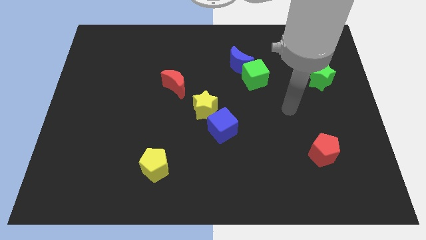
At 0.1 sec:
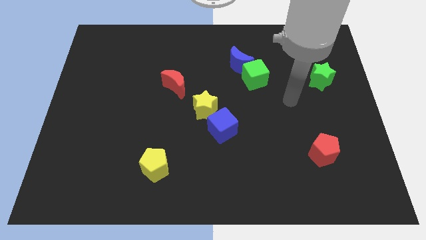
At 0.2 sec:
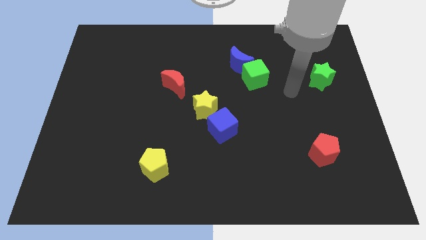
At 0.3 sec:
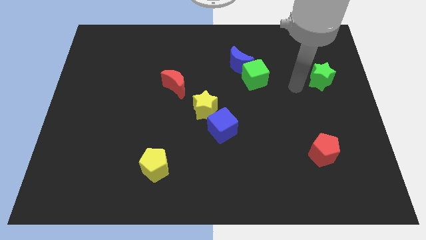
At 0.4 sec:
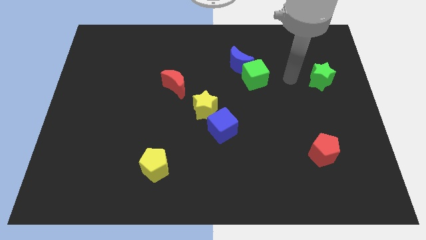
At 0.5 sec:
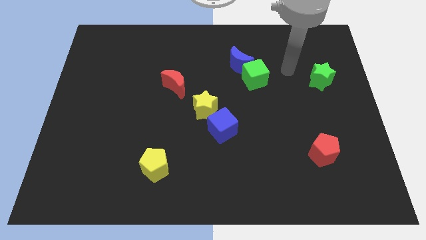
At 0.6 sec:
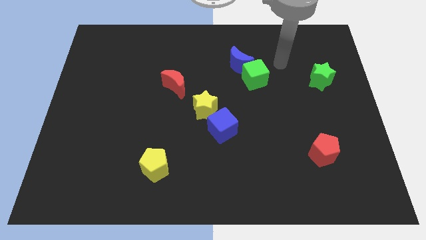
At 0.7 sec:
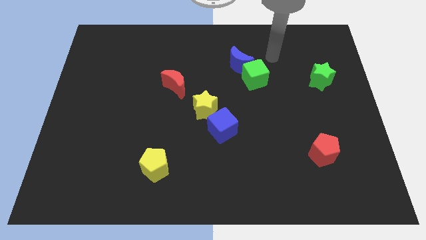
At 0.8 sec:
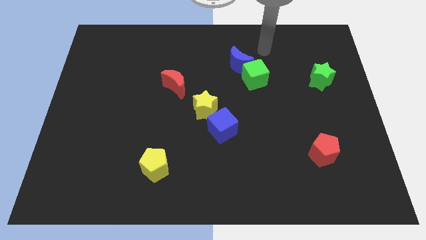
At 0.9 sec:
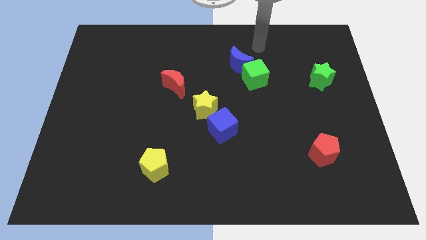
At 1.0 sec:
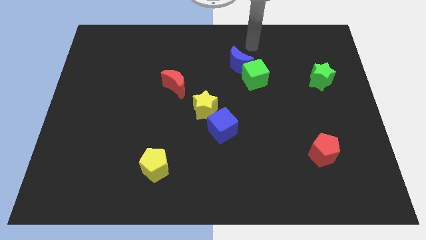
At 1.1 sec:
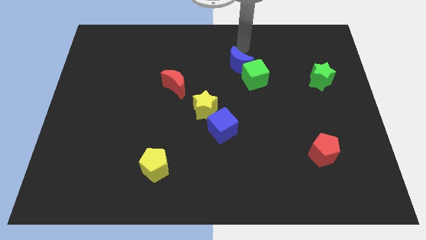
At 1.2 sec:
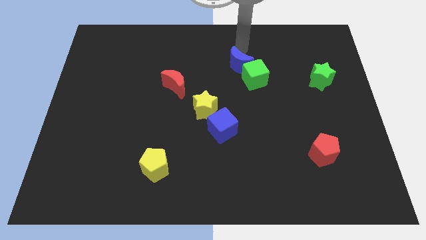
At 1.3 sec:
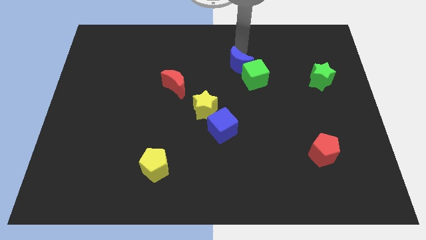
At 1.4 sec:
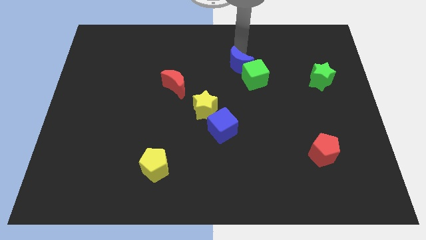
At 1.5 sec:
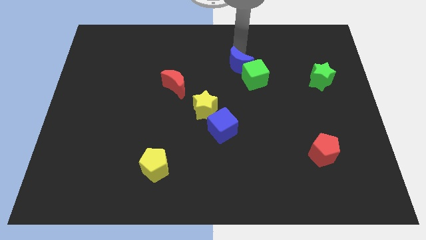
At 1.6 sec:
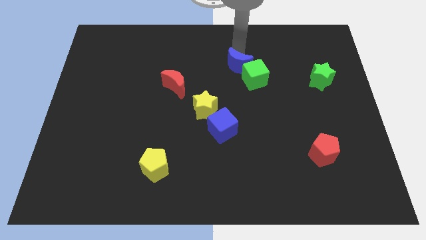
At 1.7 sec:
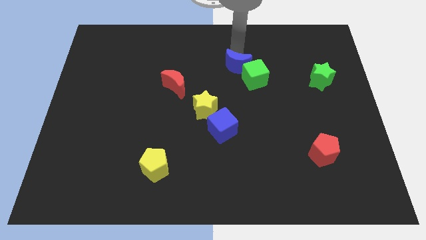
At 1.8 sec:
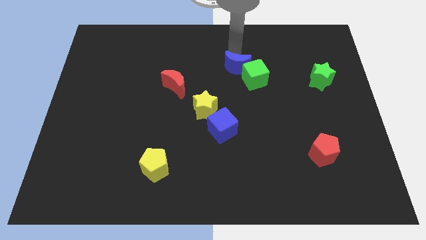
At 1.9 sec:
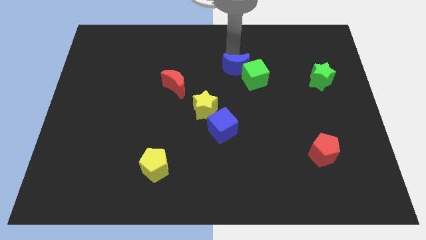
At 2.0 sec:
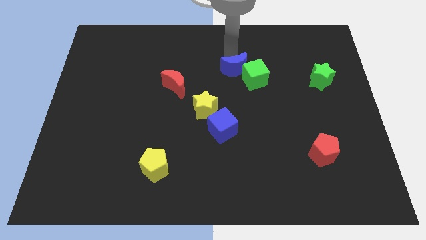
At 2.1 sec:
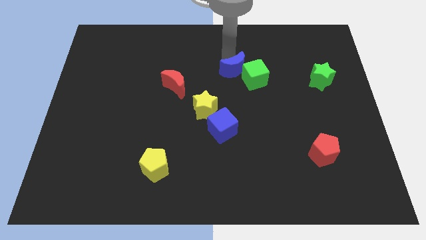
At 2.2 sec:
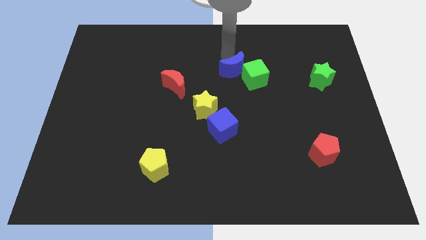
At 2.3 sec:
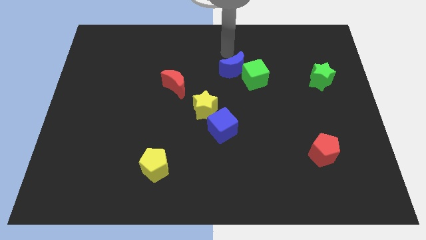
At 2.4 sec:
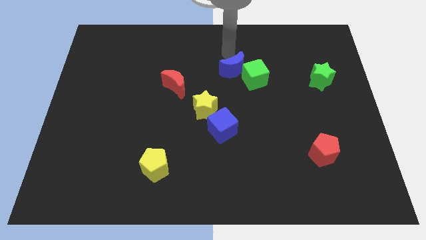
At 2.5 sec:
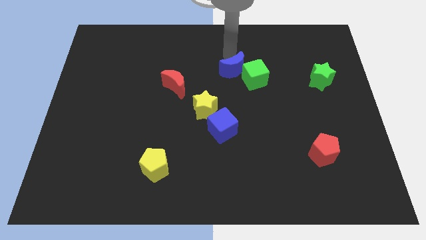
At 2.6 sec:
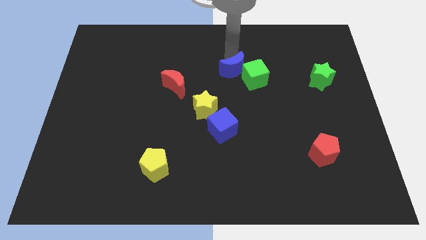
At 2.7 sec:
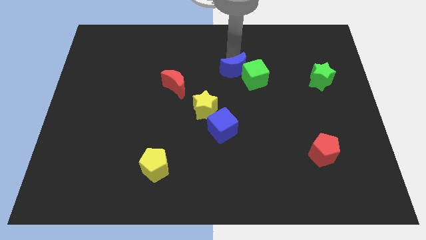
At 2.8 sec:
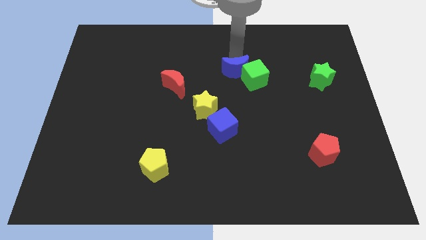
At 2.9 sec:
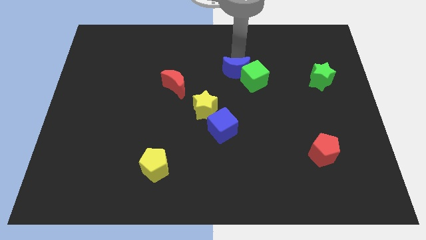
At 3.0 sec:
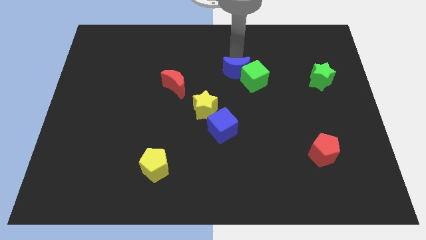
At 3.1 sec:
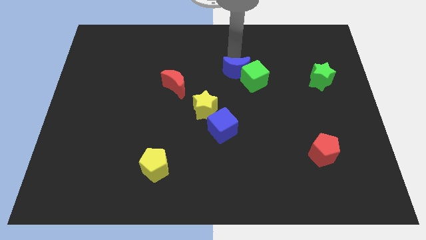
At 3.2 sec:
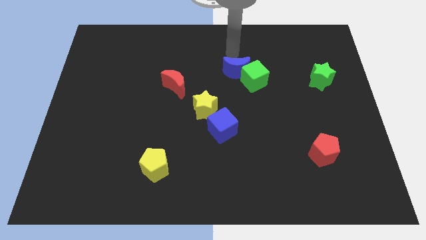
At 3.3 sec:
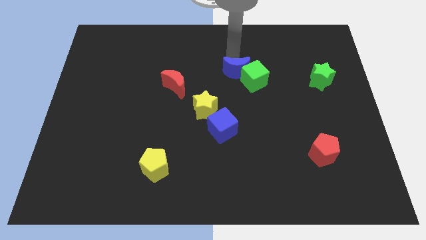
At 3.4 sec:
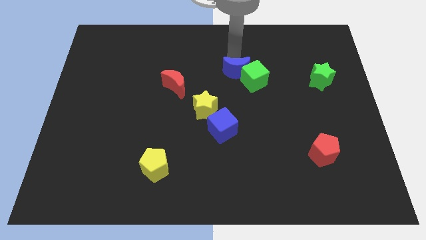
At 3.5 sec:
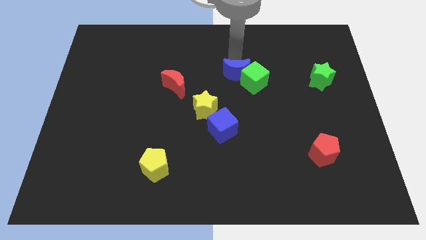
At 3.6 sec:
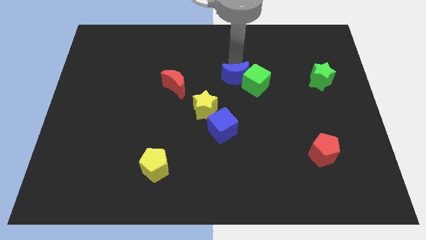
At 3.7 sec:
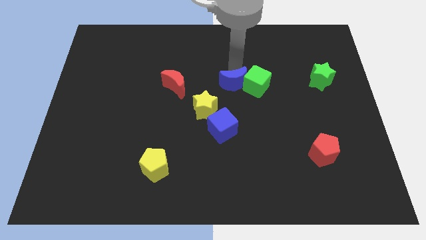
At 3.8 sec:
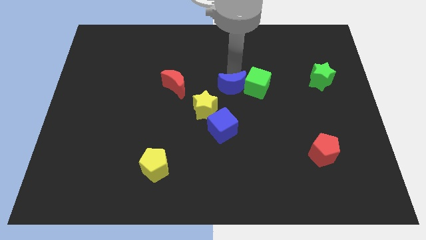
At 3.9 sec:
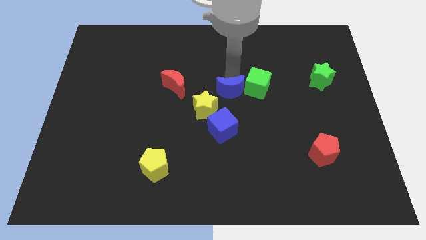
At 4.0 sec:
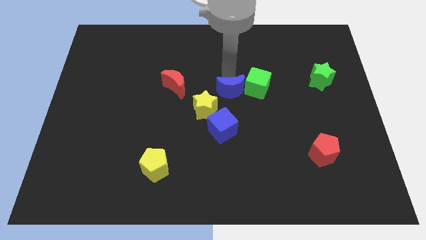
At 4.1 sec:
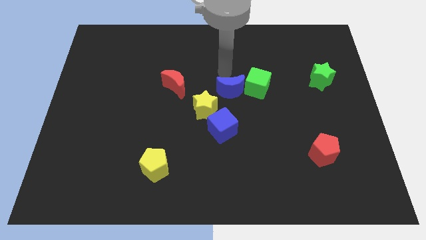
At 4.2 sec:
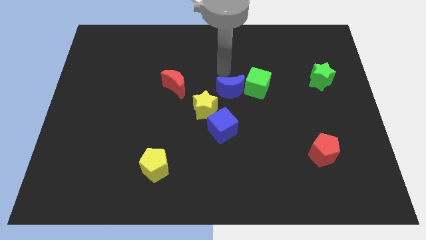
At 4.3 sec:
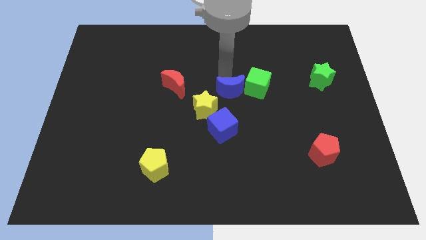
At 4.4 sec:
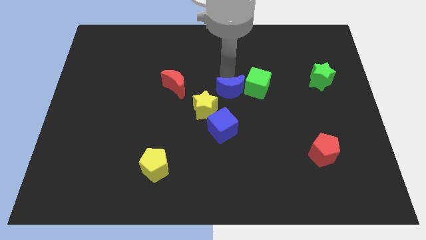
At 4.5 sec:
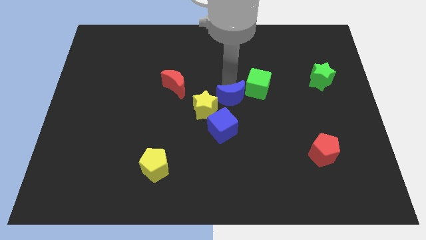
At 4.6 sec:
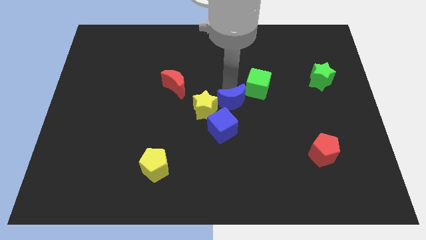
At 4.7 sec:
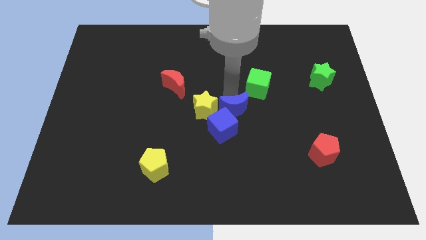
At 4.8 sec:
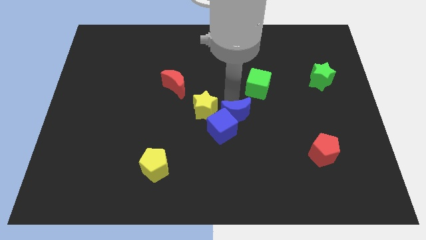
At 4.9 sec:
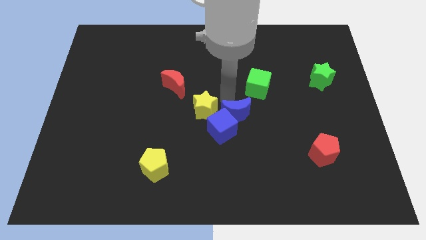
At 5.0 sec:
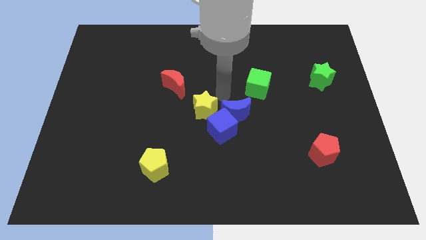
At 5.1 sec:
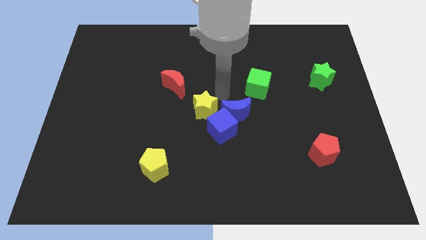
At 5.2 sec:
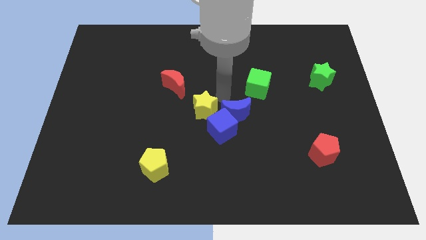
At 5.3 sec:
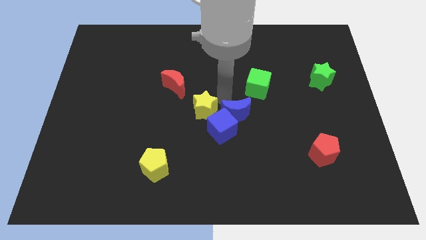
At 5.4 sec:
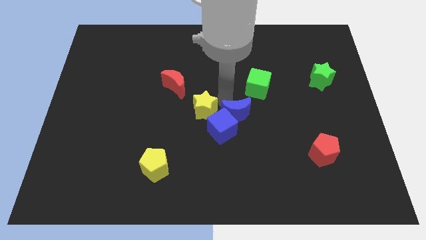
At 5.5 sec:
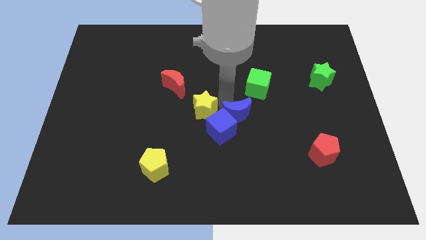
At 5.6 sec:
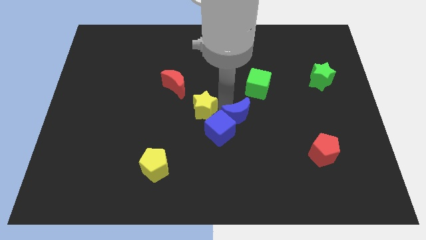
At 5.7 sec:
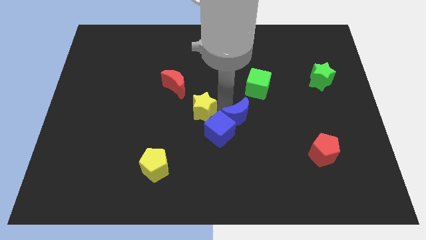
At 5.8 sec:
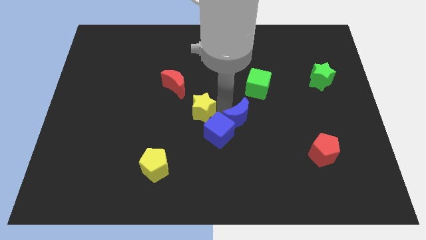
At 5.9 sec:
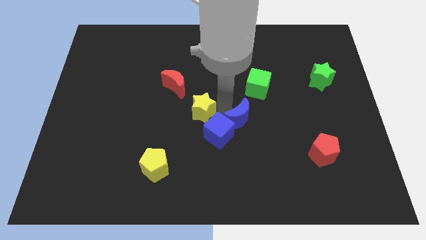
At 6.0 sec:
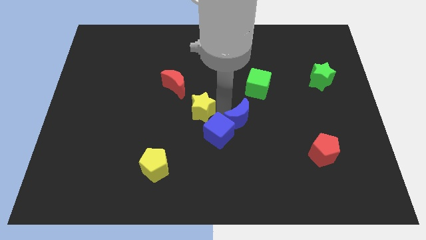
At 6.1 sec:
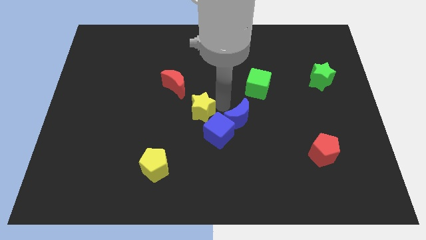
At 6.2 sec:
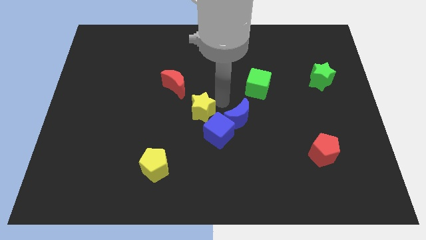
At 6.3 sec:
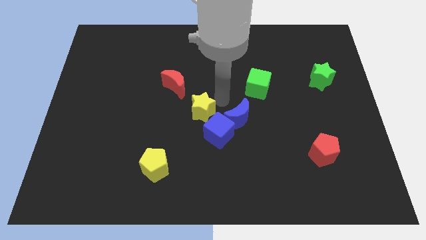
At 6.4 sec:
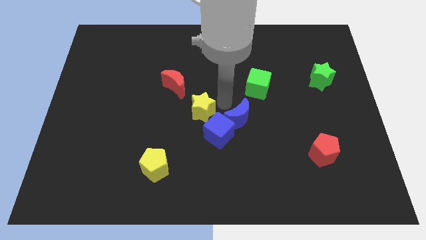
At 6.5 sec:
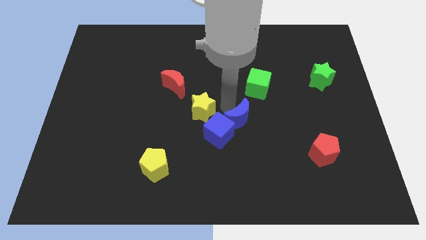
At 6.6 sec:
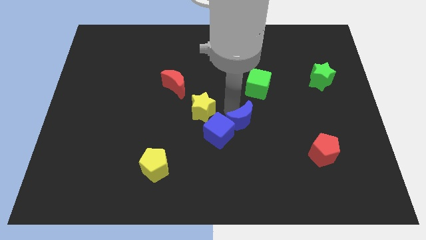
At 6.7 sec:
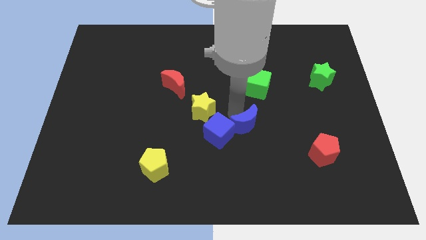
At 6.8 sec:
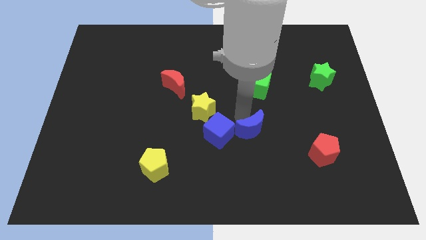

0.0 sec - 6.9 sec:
slide the blue moon downwards

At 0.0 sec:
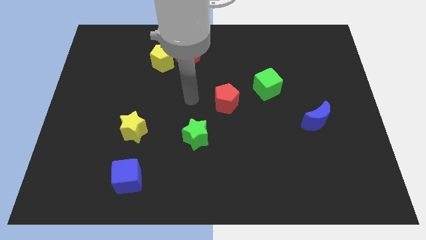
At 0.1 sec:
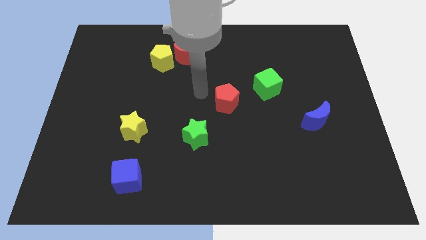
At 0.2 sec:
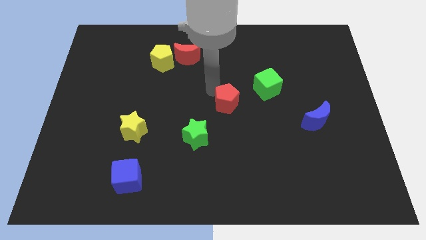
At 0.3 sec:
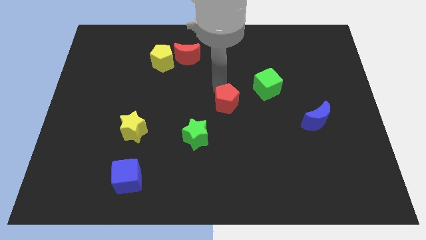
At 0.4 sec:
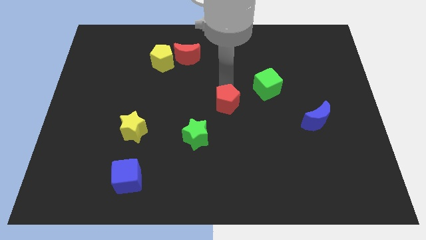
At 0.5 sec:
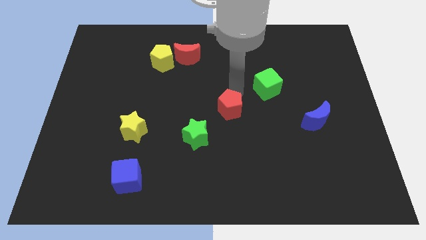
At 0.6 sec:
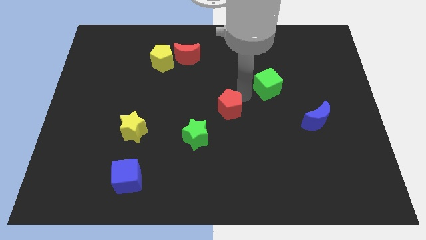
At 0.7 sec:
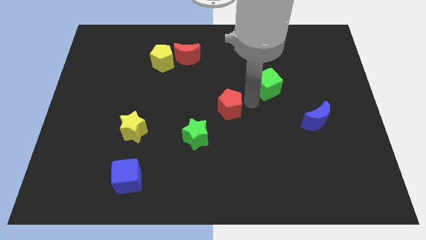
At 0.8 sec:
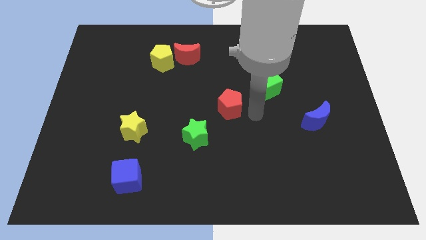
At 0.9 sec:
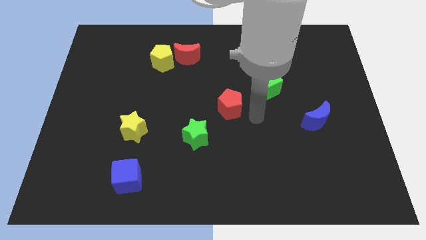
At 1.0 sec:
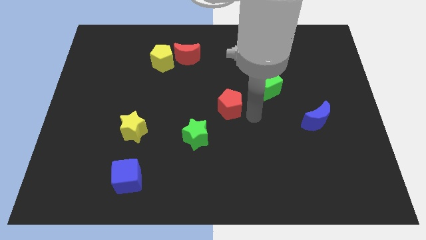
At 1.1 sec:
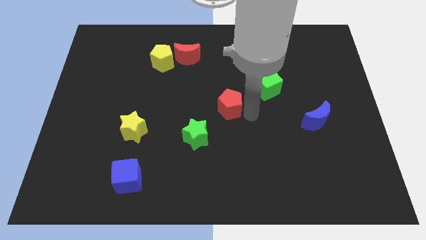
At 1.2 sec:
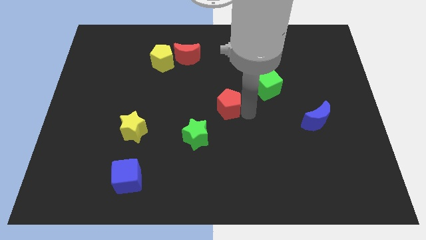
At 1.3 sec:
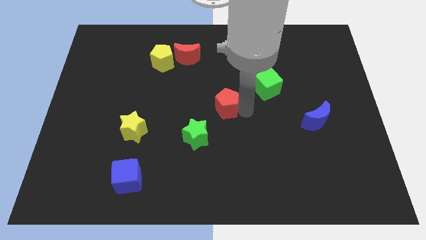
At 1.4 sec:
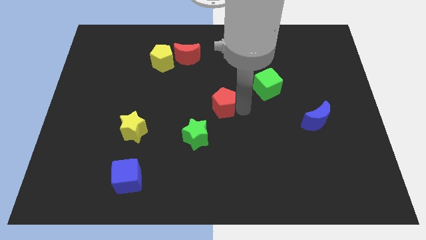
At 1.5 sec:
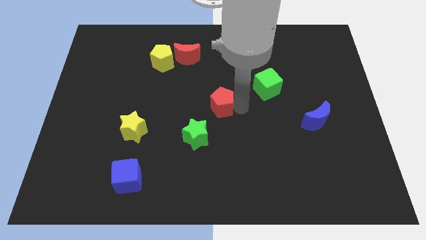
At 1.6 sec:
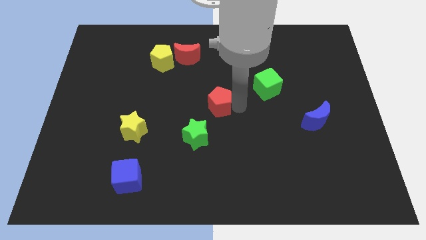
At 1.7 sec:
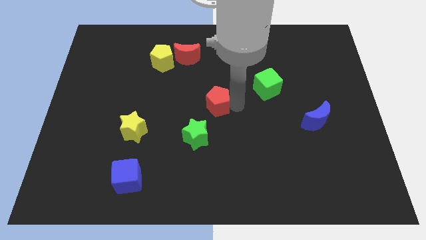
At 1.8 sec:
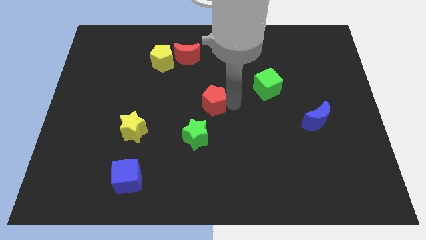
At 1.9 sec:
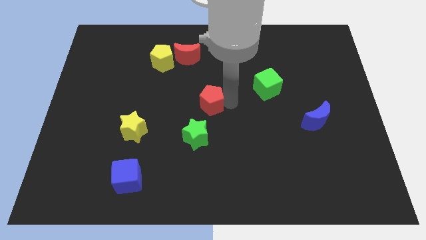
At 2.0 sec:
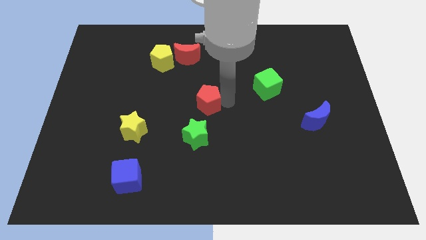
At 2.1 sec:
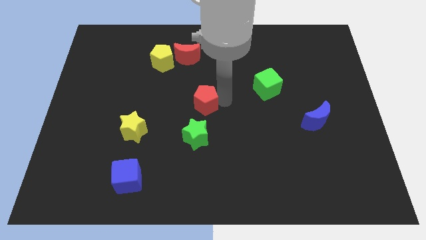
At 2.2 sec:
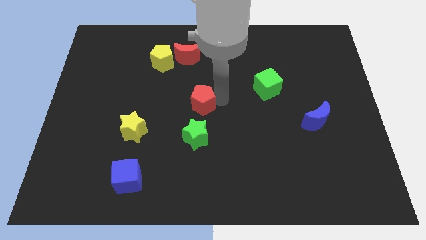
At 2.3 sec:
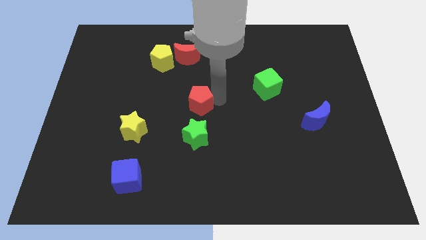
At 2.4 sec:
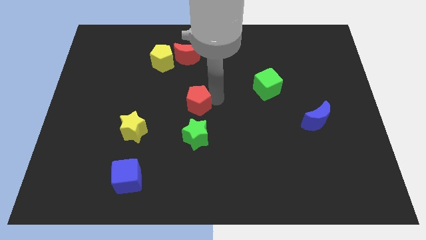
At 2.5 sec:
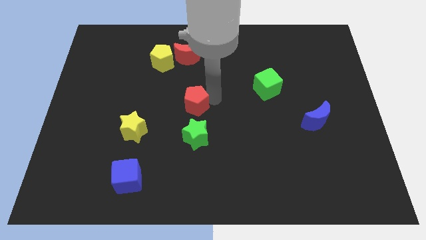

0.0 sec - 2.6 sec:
move the red pentagon to the left a bit
